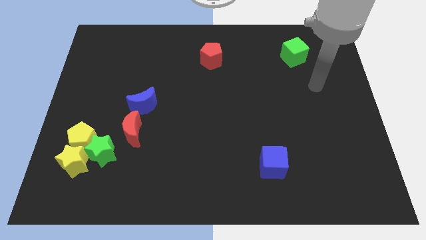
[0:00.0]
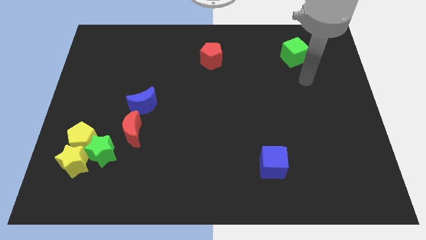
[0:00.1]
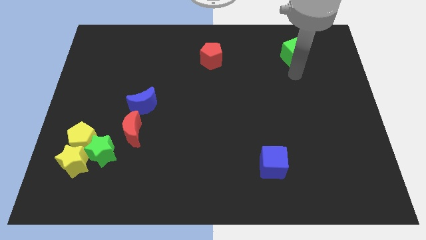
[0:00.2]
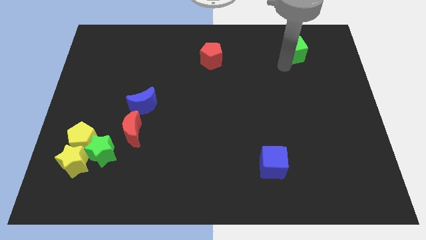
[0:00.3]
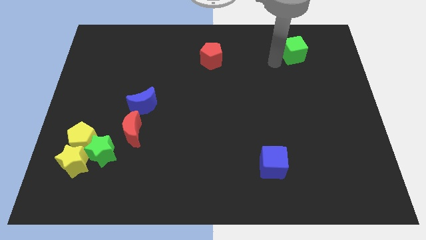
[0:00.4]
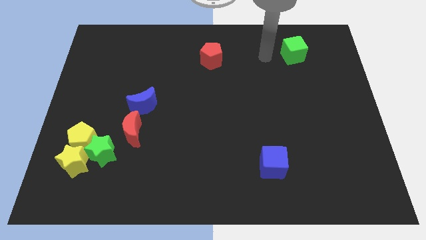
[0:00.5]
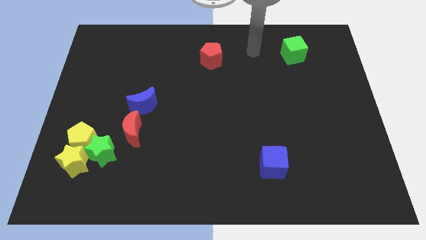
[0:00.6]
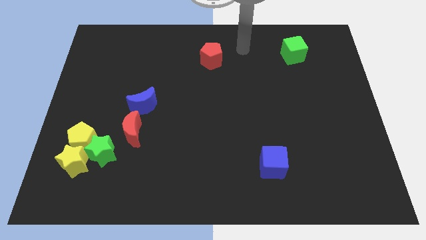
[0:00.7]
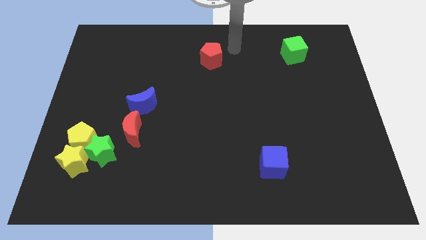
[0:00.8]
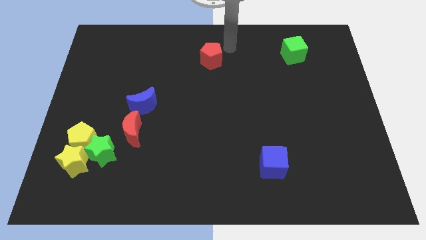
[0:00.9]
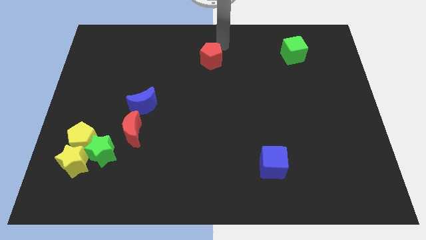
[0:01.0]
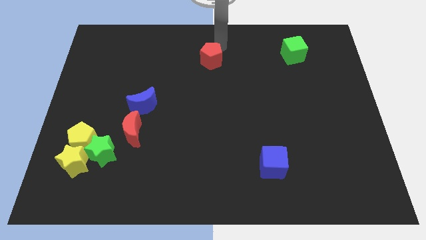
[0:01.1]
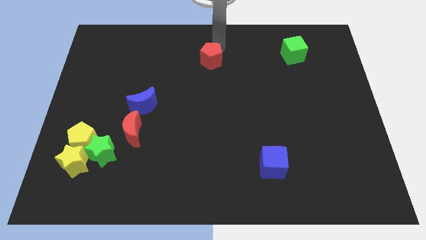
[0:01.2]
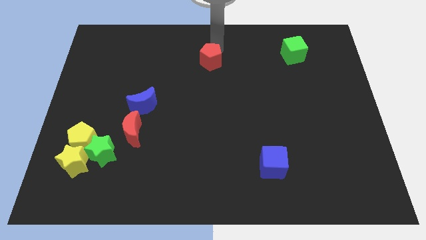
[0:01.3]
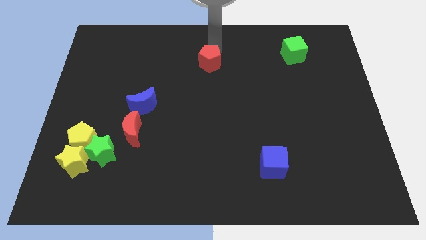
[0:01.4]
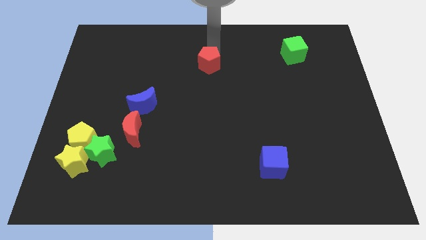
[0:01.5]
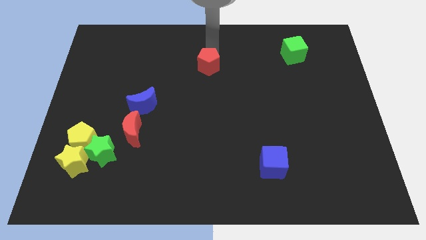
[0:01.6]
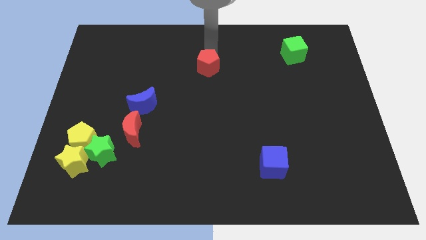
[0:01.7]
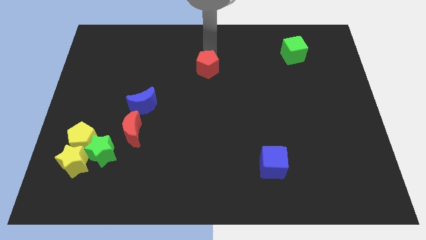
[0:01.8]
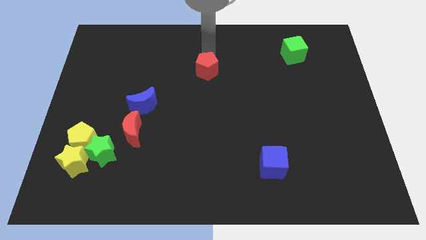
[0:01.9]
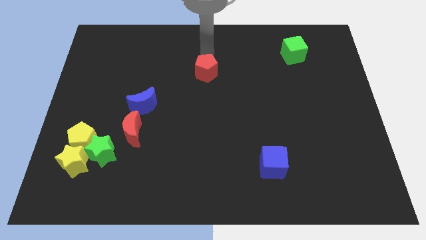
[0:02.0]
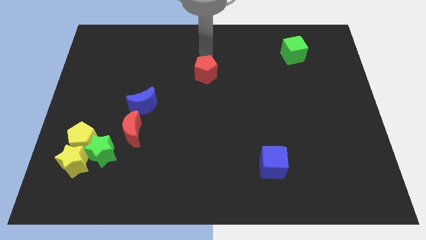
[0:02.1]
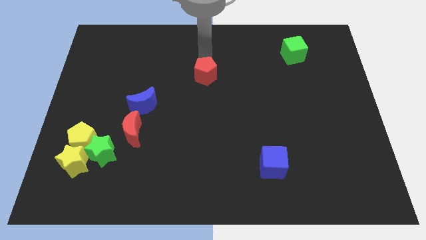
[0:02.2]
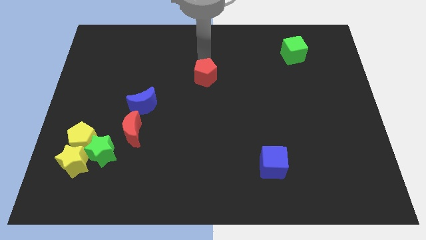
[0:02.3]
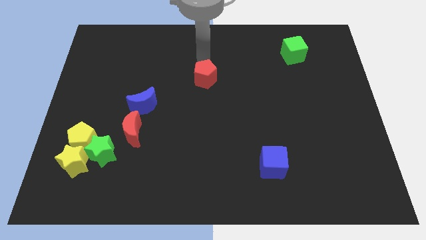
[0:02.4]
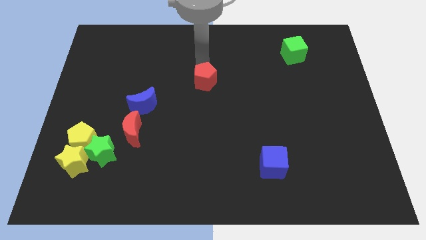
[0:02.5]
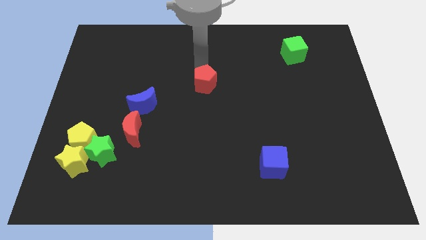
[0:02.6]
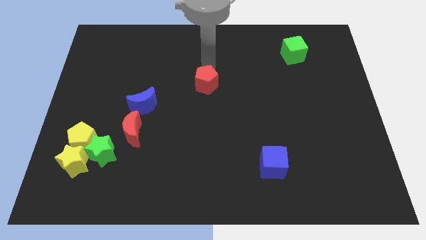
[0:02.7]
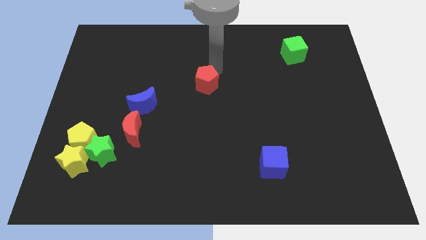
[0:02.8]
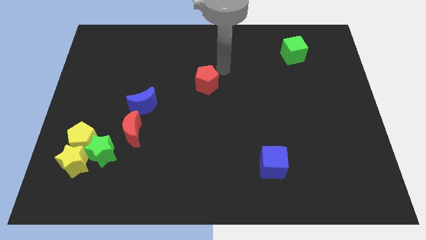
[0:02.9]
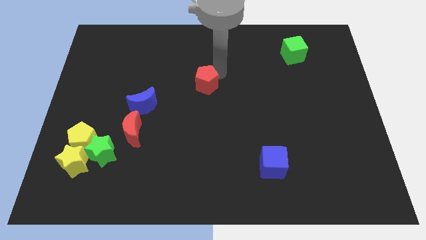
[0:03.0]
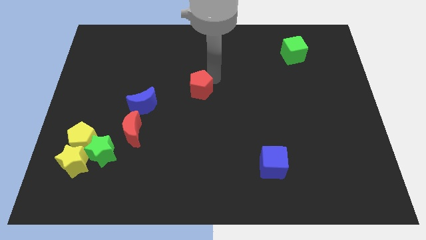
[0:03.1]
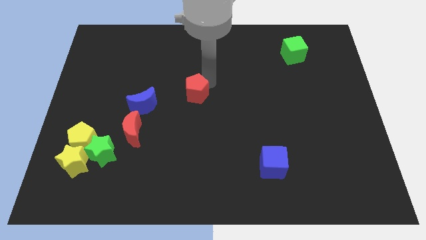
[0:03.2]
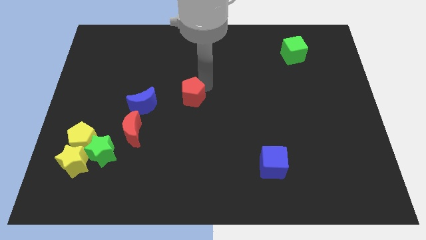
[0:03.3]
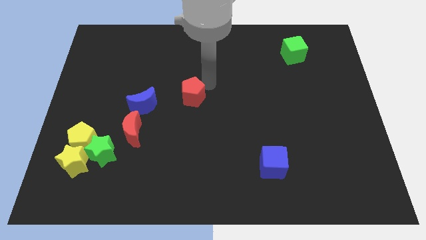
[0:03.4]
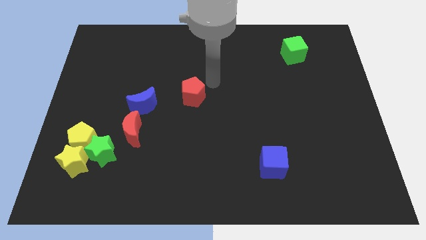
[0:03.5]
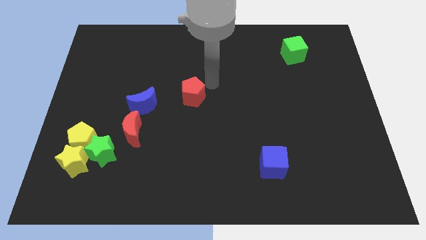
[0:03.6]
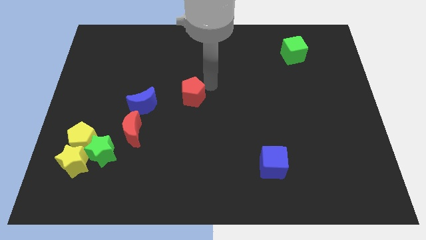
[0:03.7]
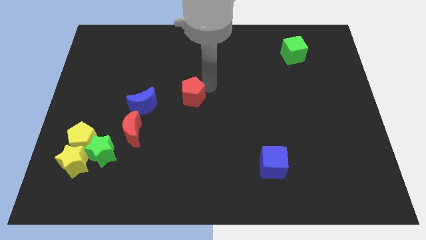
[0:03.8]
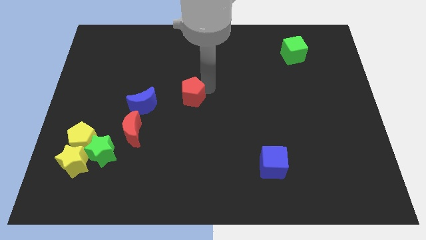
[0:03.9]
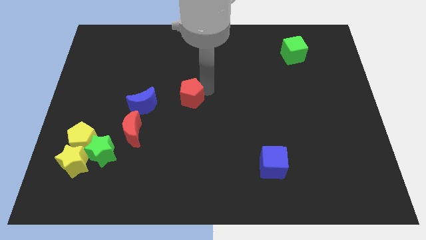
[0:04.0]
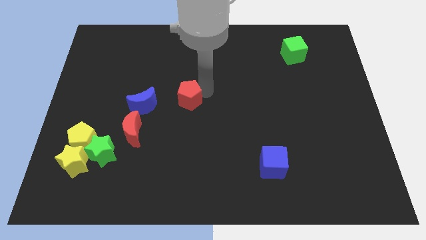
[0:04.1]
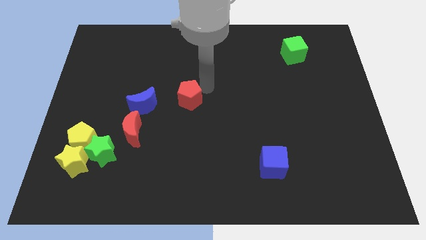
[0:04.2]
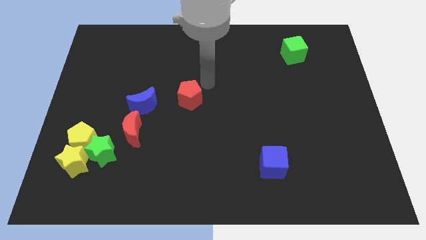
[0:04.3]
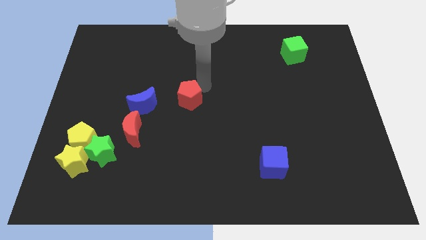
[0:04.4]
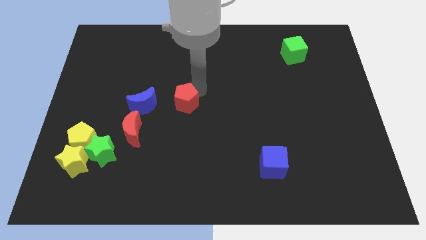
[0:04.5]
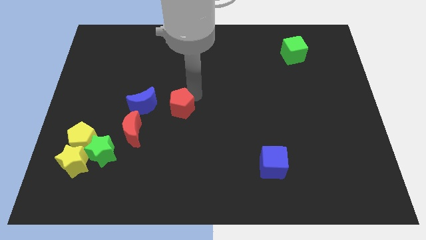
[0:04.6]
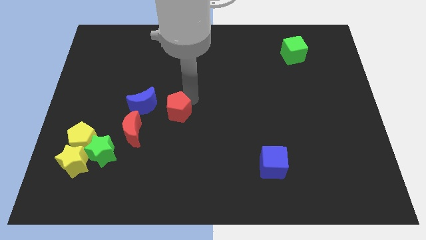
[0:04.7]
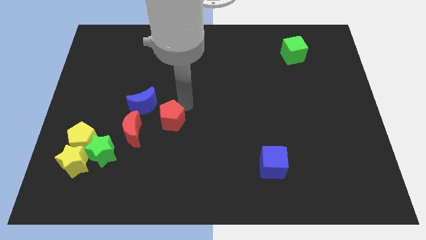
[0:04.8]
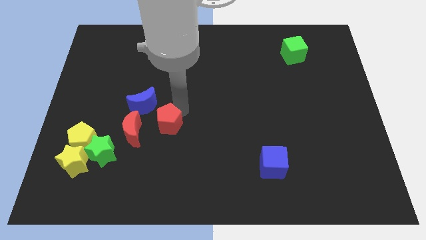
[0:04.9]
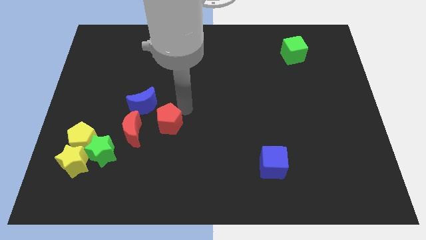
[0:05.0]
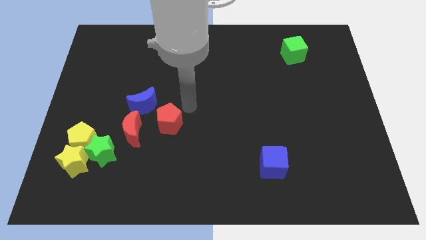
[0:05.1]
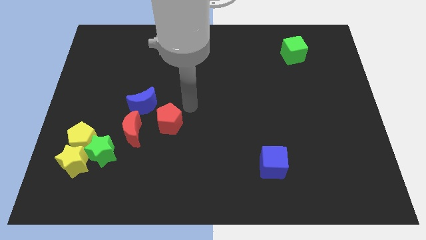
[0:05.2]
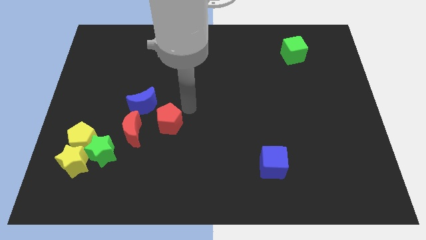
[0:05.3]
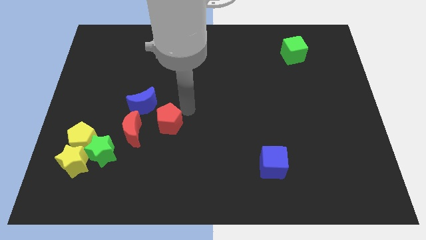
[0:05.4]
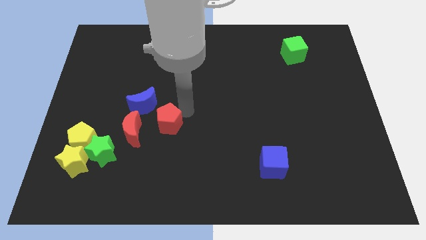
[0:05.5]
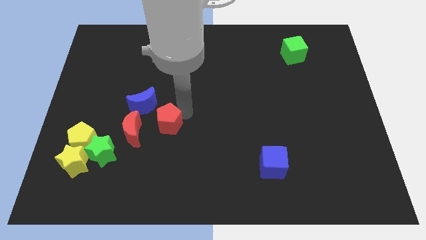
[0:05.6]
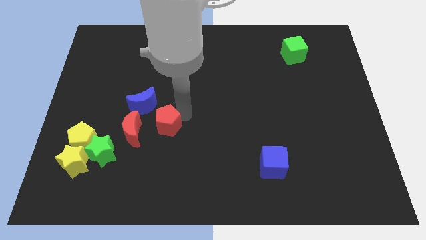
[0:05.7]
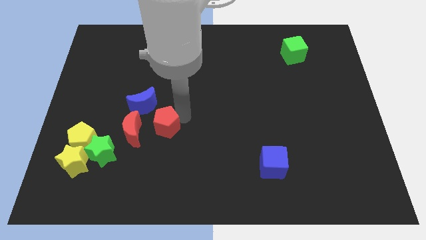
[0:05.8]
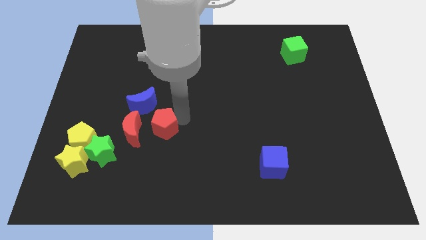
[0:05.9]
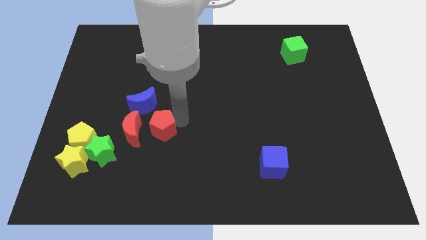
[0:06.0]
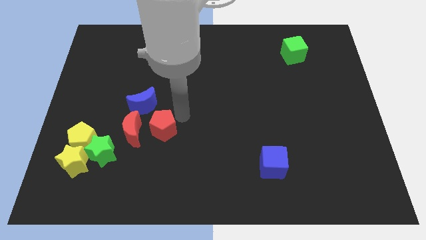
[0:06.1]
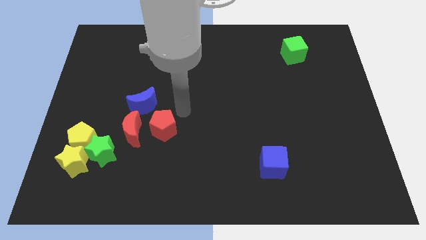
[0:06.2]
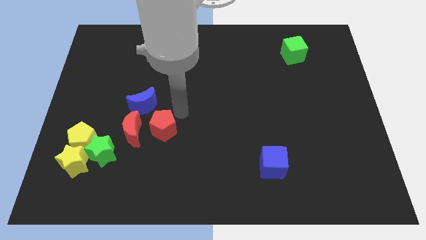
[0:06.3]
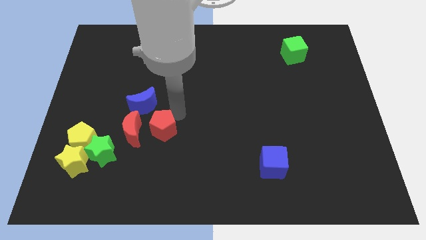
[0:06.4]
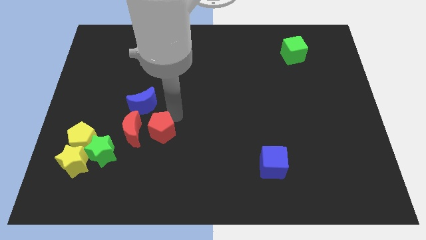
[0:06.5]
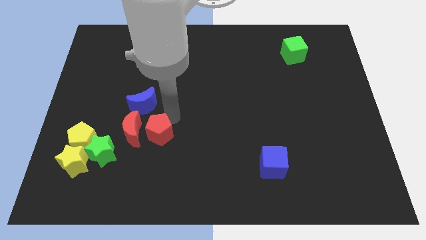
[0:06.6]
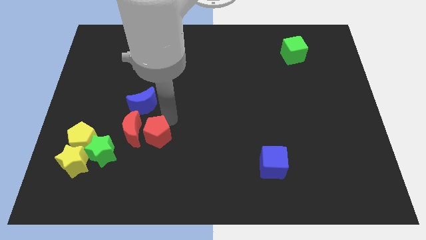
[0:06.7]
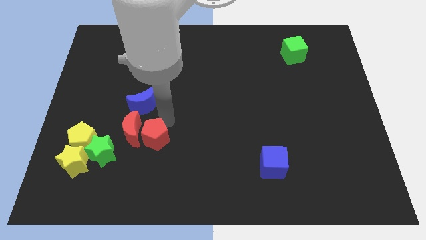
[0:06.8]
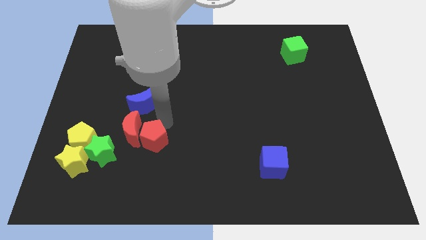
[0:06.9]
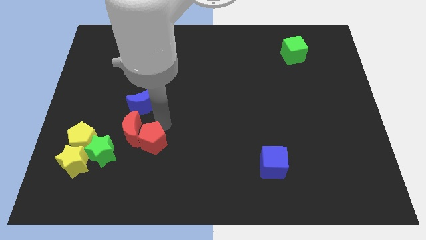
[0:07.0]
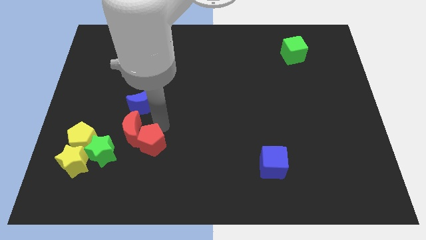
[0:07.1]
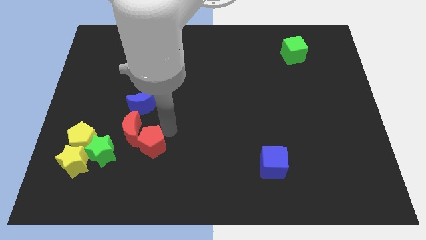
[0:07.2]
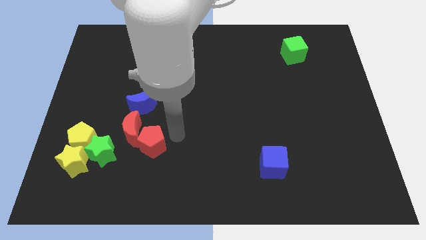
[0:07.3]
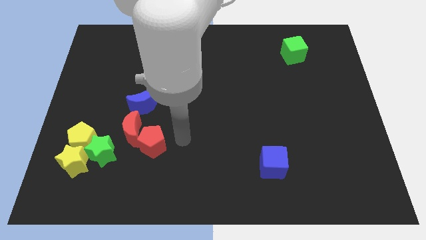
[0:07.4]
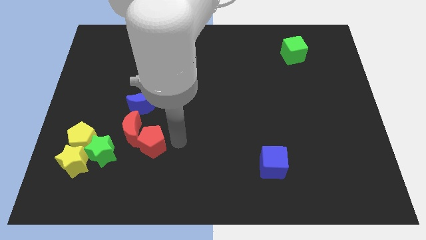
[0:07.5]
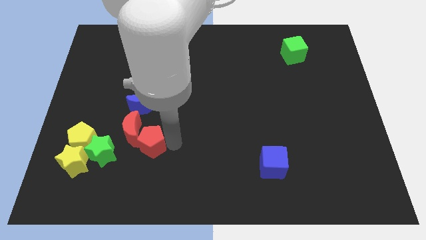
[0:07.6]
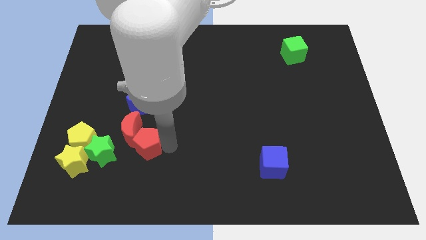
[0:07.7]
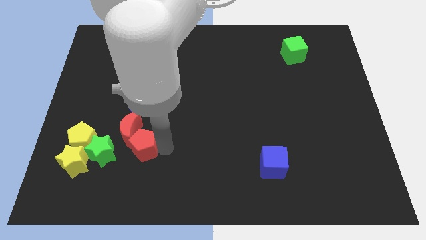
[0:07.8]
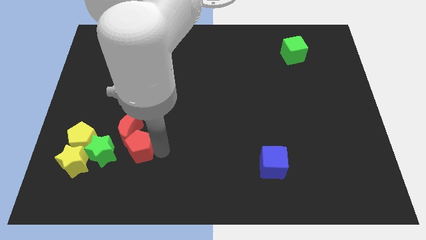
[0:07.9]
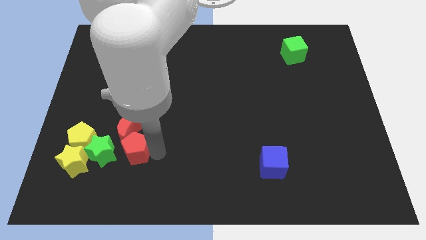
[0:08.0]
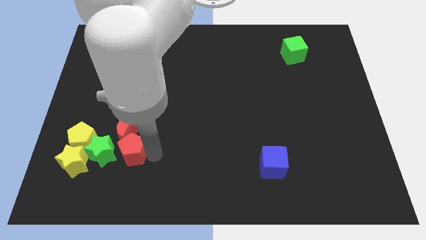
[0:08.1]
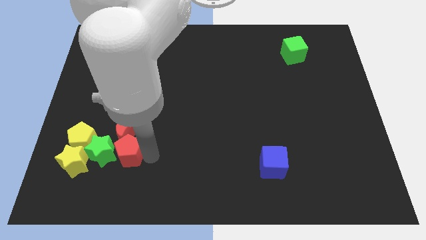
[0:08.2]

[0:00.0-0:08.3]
move the red pentagon towards the green star
